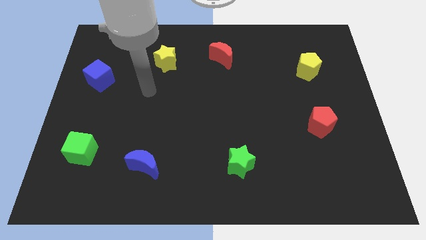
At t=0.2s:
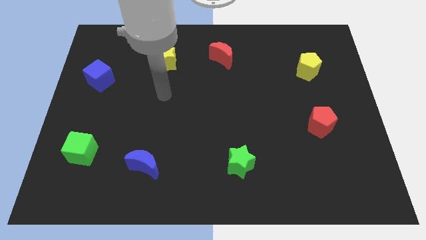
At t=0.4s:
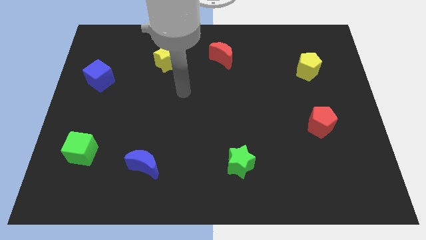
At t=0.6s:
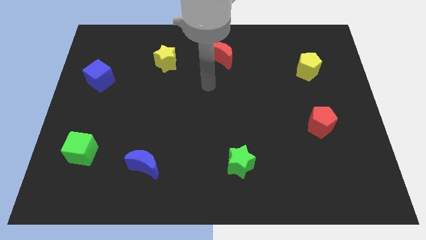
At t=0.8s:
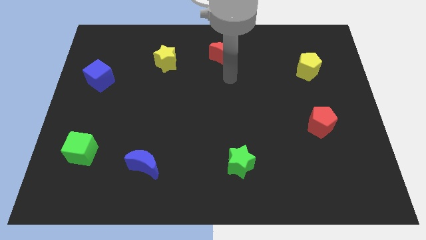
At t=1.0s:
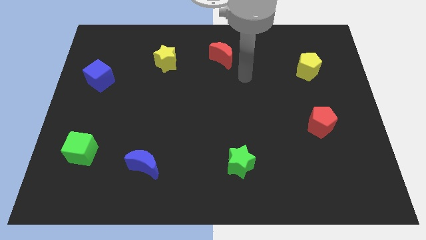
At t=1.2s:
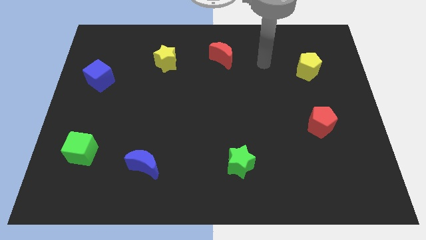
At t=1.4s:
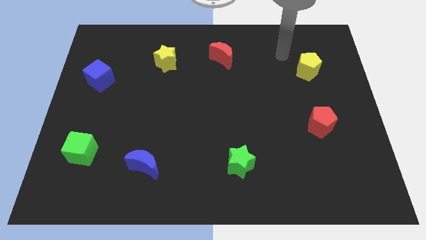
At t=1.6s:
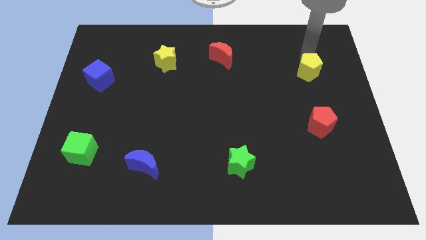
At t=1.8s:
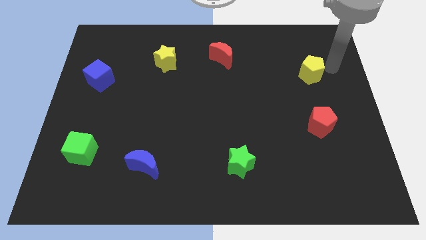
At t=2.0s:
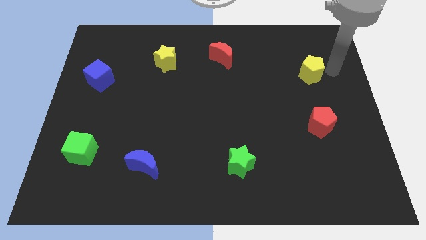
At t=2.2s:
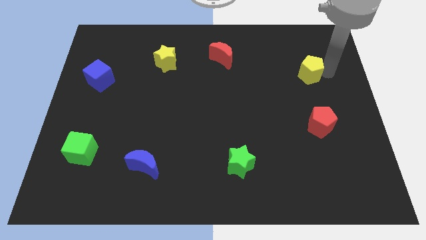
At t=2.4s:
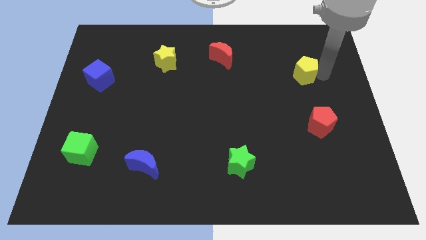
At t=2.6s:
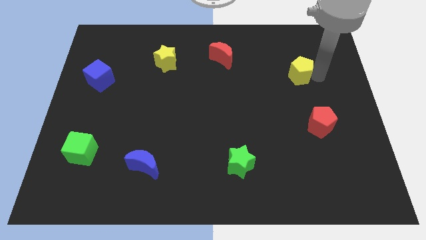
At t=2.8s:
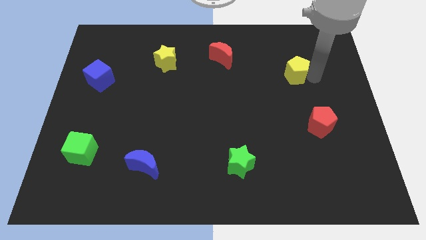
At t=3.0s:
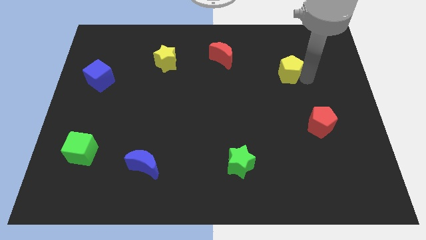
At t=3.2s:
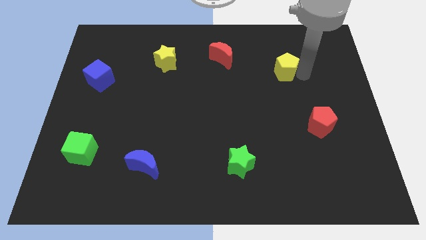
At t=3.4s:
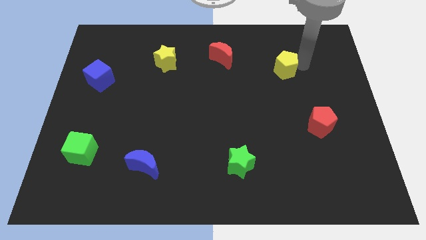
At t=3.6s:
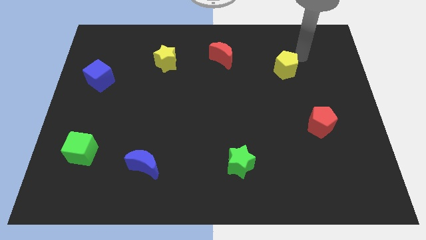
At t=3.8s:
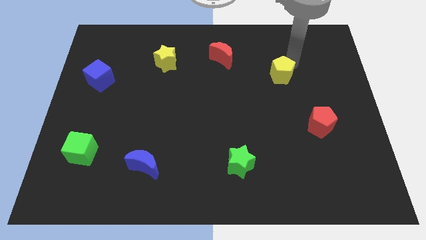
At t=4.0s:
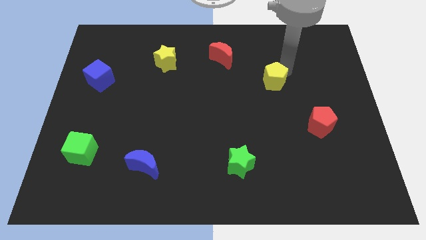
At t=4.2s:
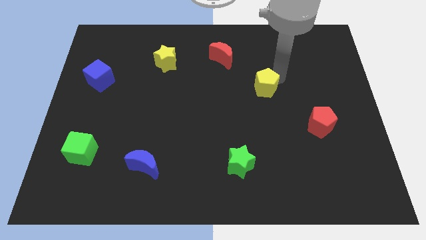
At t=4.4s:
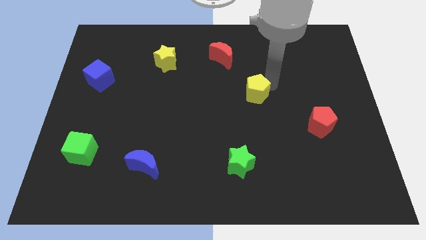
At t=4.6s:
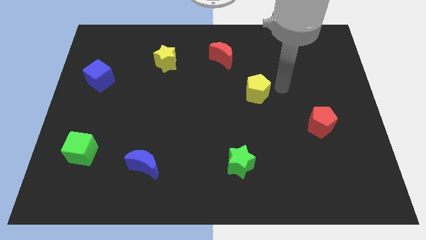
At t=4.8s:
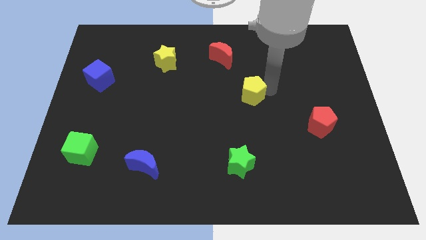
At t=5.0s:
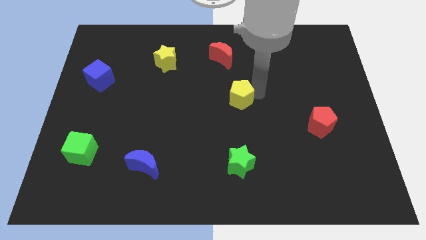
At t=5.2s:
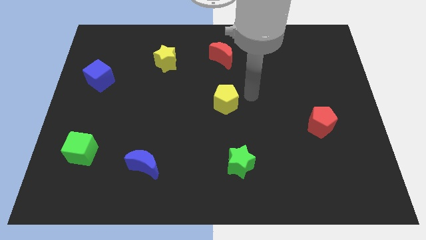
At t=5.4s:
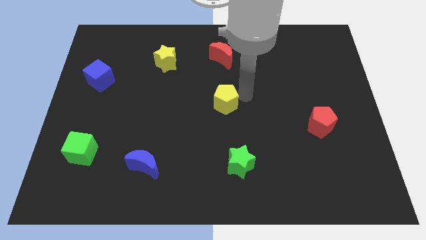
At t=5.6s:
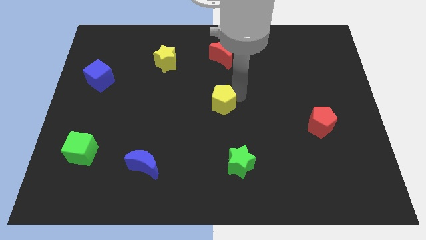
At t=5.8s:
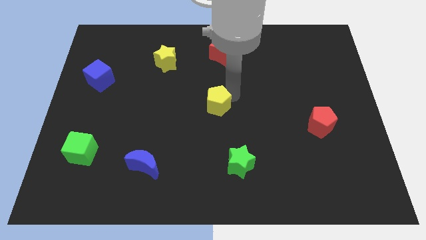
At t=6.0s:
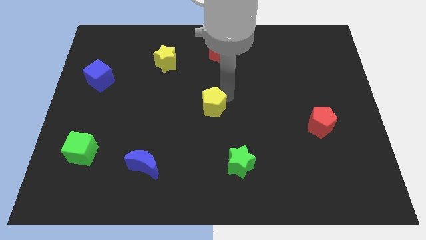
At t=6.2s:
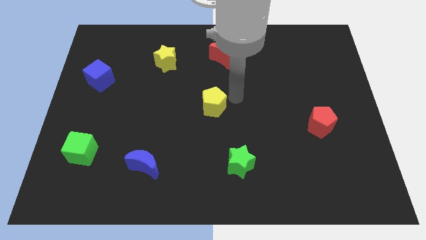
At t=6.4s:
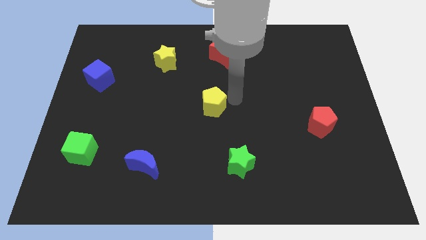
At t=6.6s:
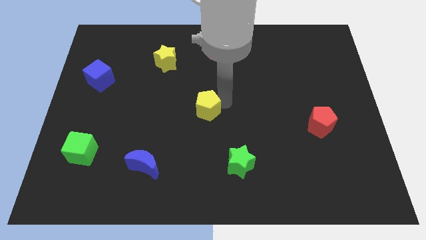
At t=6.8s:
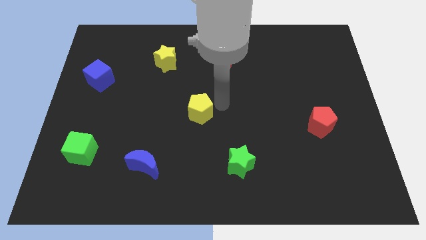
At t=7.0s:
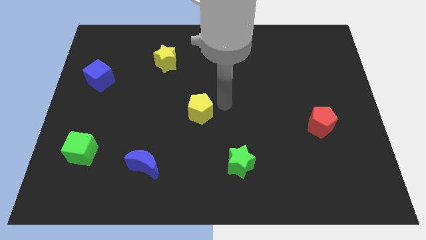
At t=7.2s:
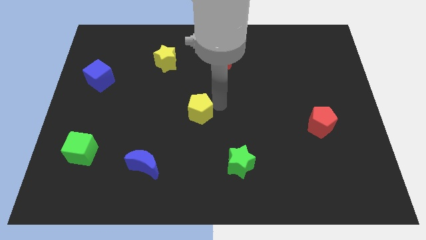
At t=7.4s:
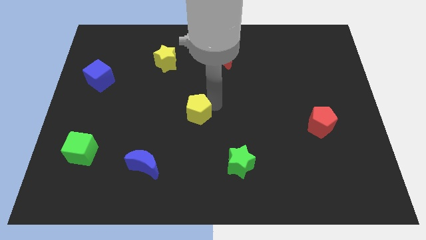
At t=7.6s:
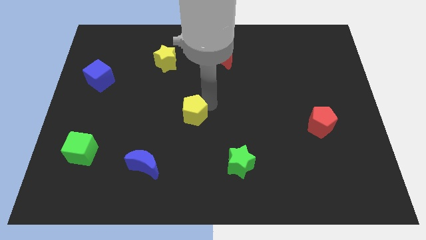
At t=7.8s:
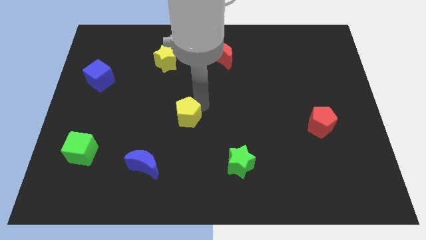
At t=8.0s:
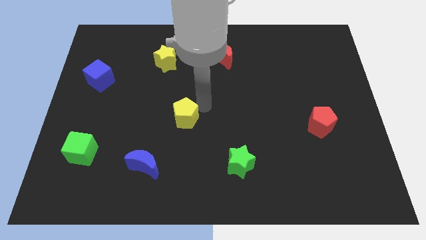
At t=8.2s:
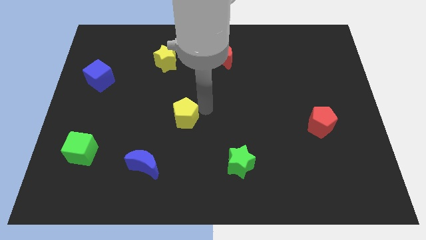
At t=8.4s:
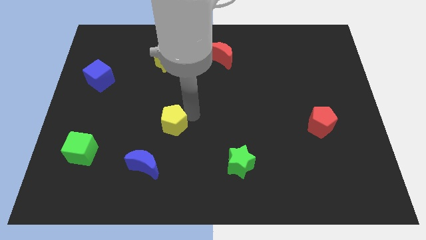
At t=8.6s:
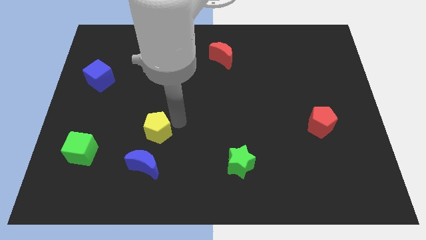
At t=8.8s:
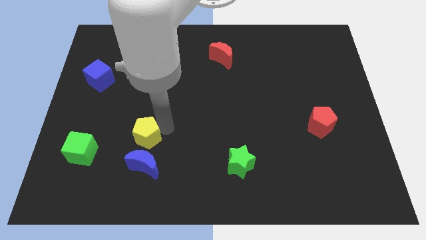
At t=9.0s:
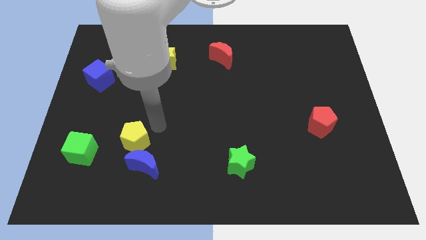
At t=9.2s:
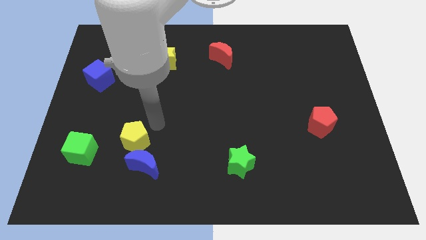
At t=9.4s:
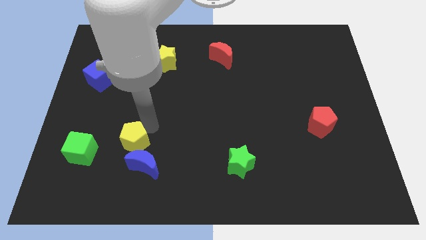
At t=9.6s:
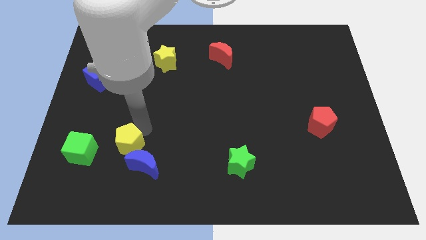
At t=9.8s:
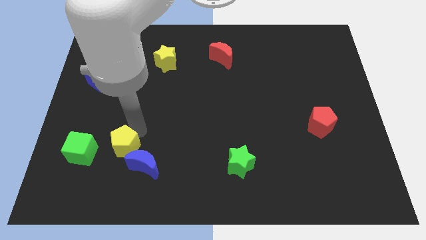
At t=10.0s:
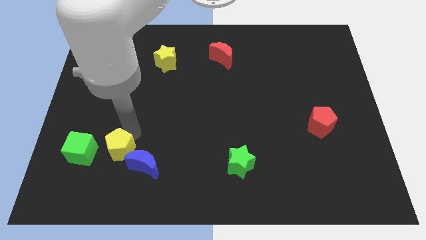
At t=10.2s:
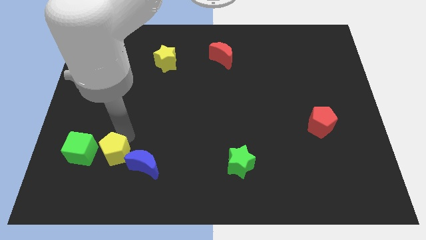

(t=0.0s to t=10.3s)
push the yellow pentagon to the bottom right of the green cube

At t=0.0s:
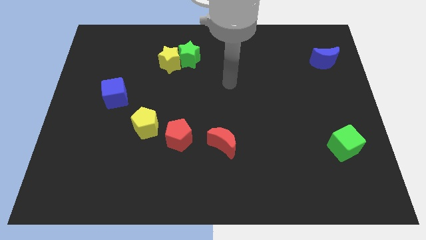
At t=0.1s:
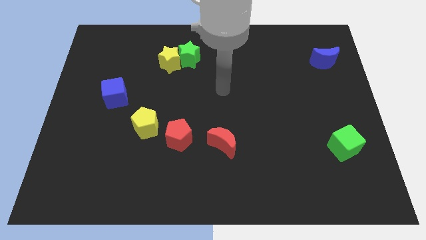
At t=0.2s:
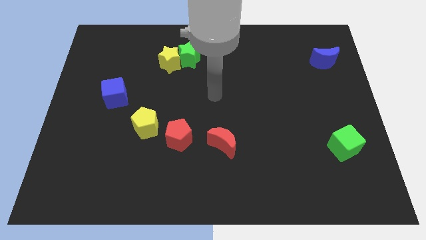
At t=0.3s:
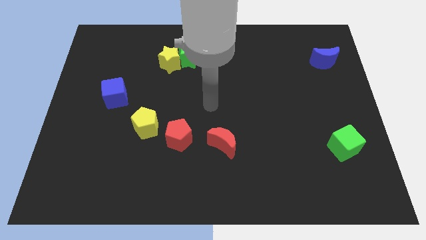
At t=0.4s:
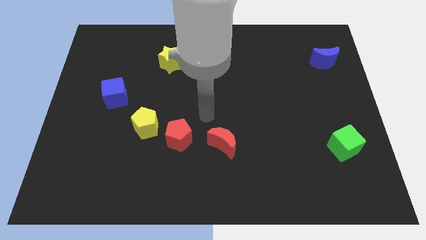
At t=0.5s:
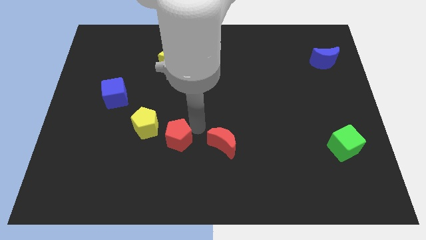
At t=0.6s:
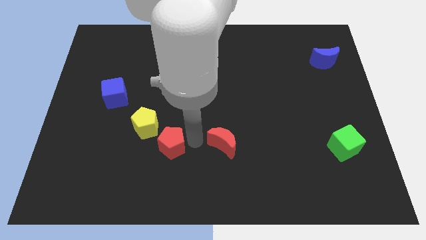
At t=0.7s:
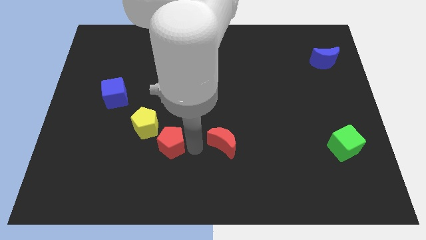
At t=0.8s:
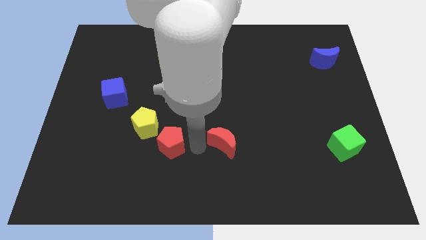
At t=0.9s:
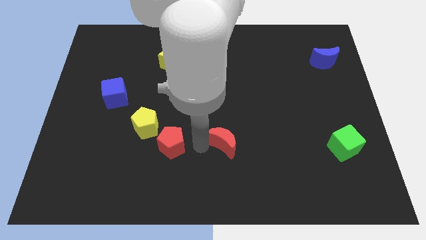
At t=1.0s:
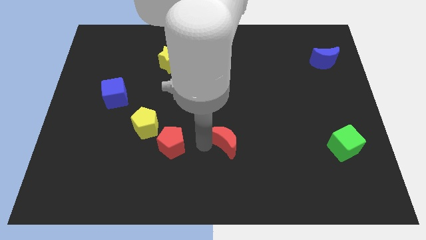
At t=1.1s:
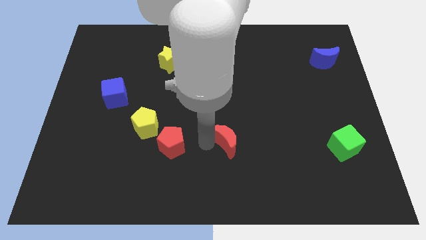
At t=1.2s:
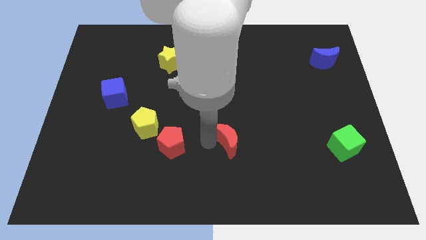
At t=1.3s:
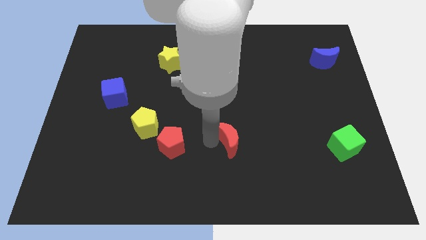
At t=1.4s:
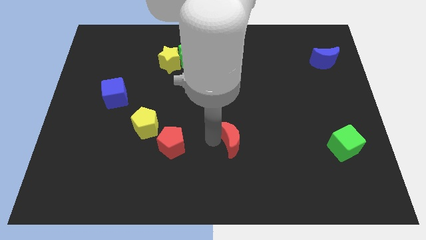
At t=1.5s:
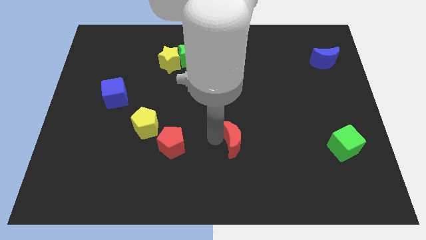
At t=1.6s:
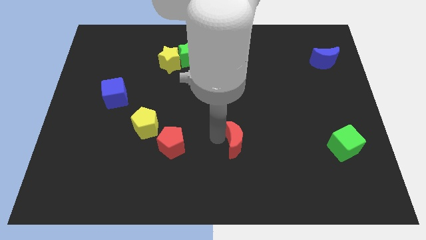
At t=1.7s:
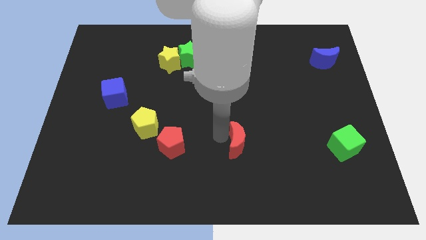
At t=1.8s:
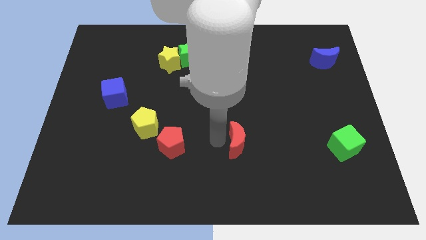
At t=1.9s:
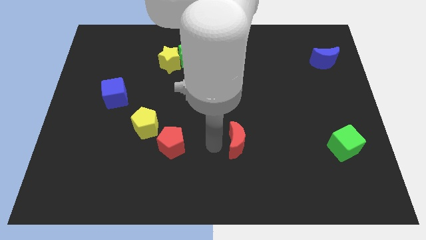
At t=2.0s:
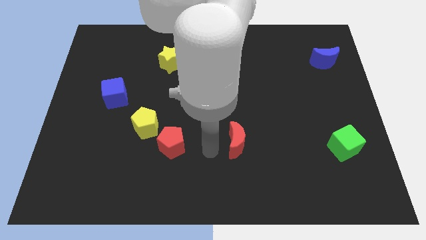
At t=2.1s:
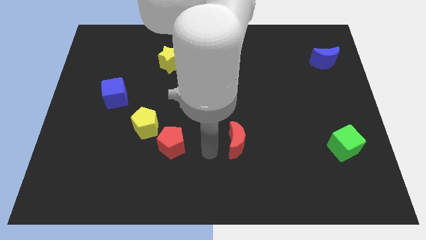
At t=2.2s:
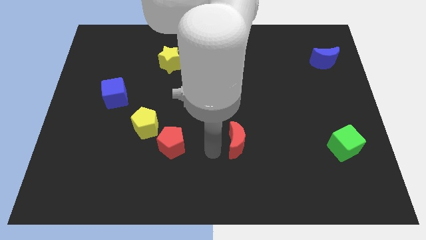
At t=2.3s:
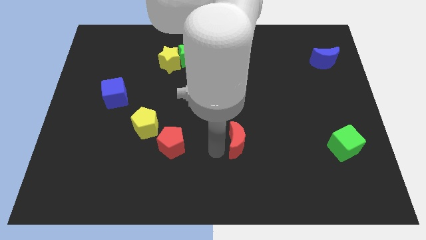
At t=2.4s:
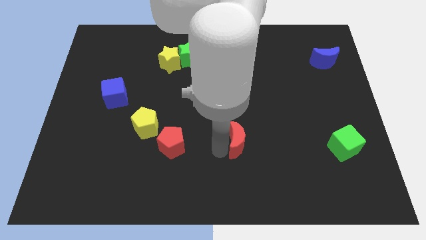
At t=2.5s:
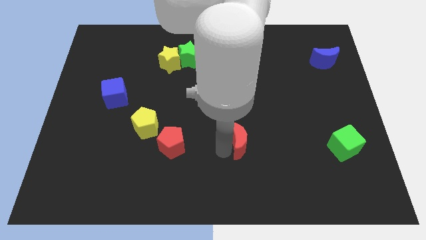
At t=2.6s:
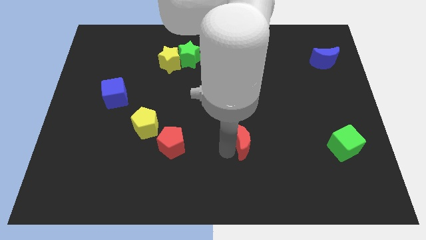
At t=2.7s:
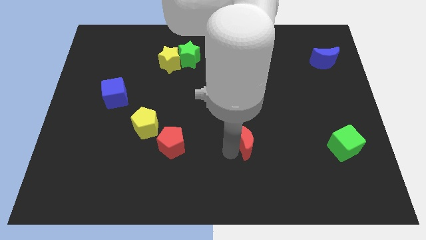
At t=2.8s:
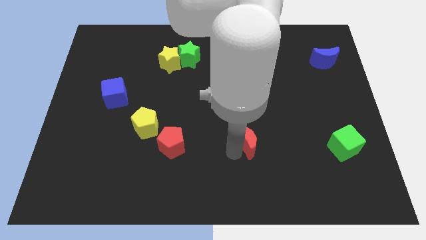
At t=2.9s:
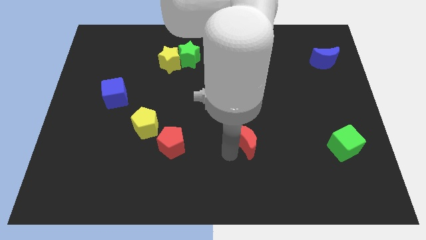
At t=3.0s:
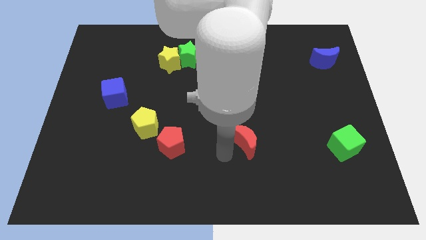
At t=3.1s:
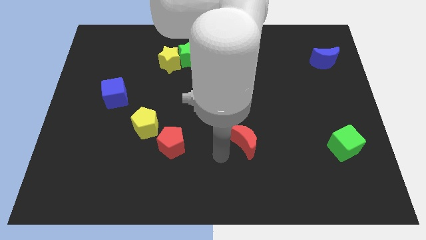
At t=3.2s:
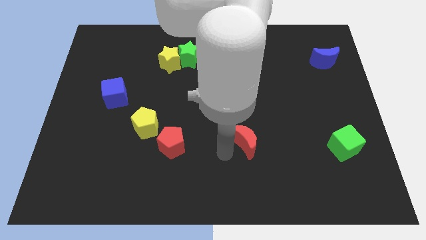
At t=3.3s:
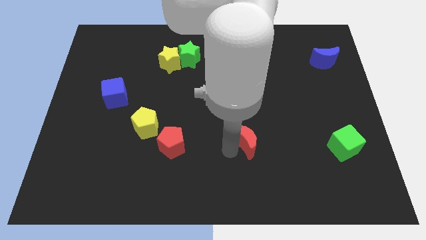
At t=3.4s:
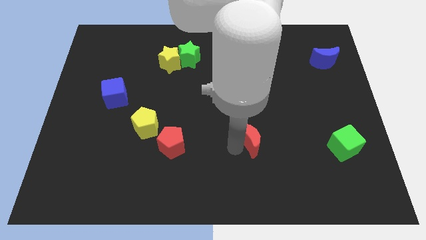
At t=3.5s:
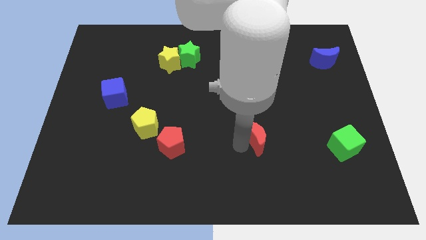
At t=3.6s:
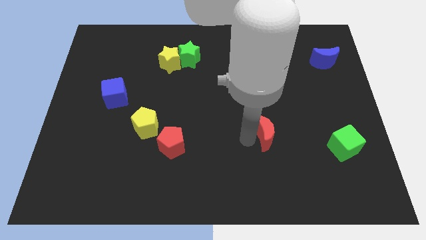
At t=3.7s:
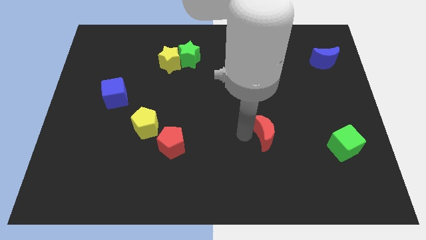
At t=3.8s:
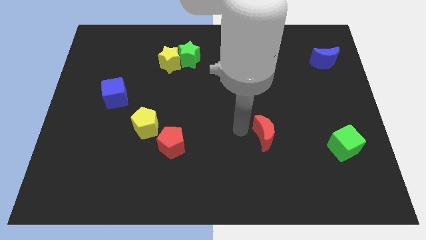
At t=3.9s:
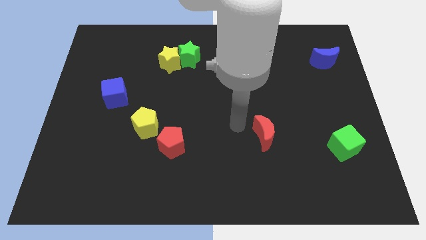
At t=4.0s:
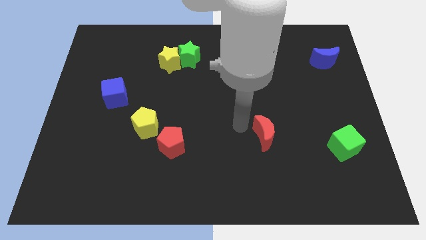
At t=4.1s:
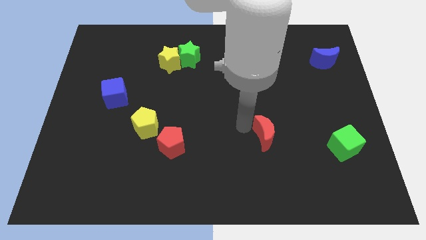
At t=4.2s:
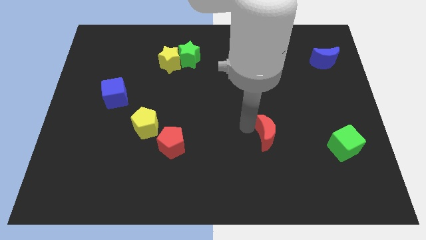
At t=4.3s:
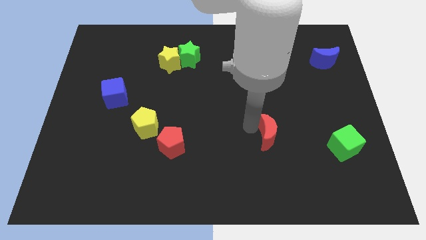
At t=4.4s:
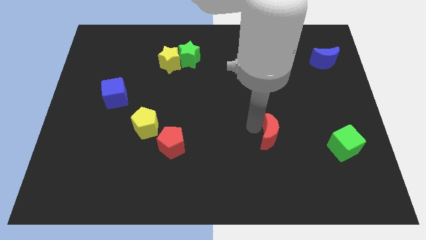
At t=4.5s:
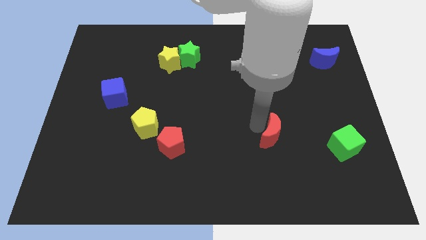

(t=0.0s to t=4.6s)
slide the red moon to the left of the green cube
